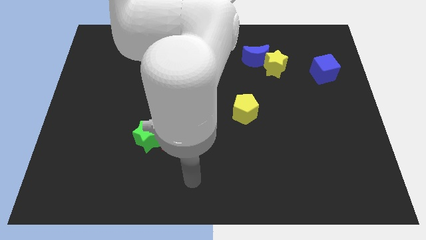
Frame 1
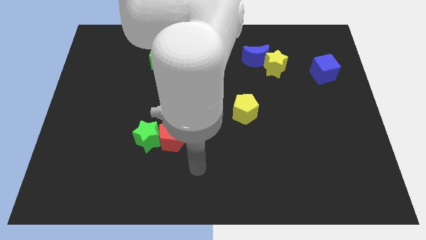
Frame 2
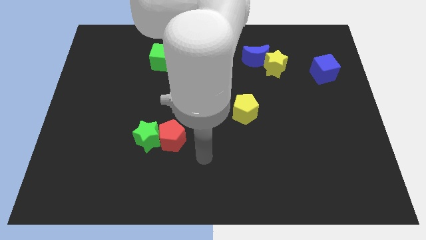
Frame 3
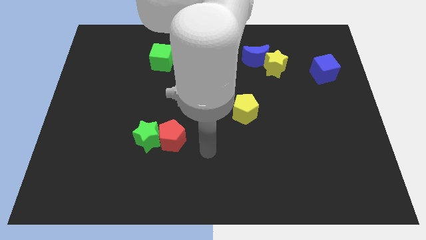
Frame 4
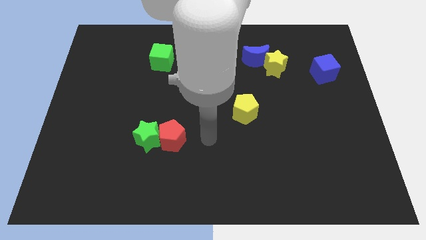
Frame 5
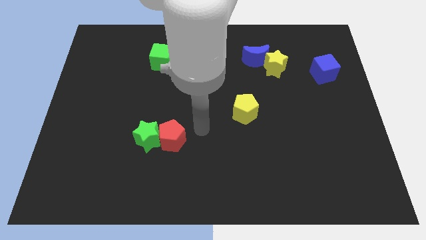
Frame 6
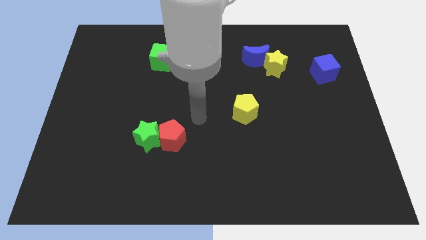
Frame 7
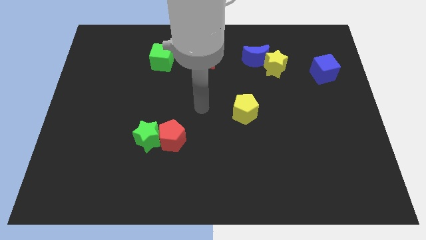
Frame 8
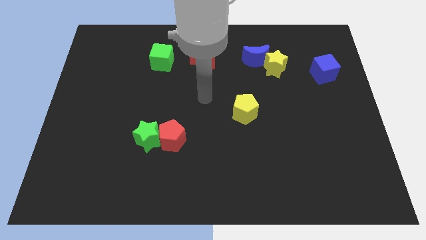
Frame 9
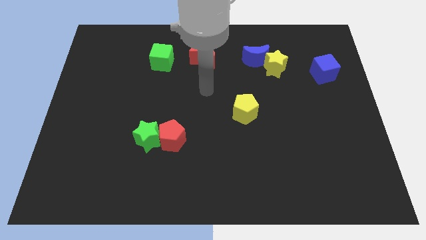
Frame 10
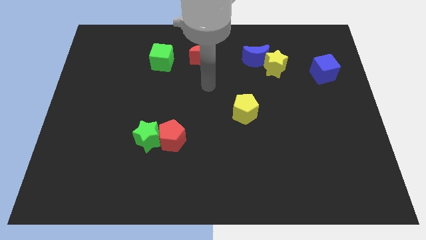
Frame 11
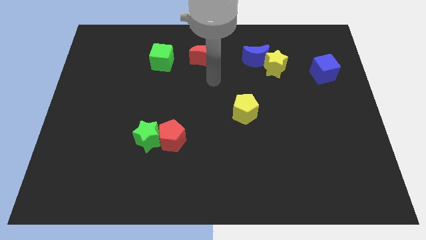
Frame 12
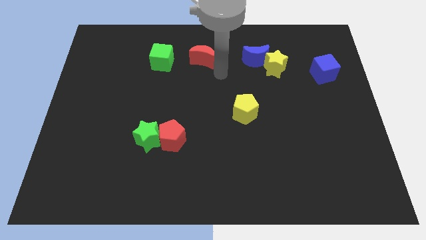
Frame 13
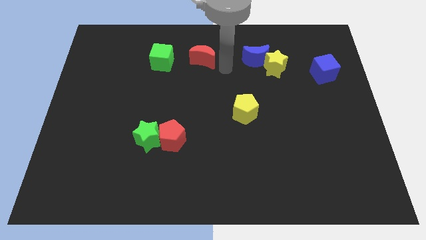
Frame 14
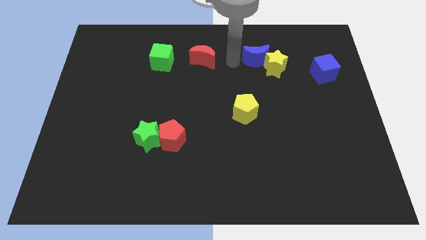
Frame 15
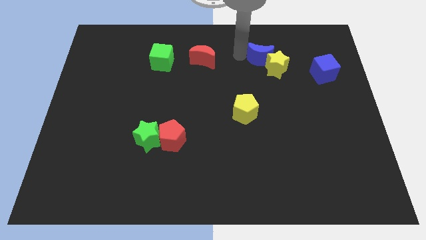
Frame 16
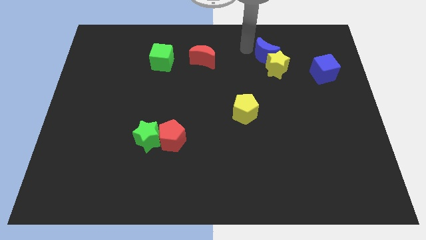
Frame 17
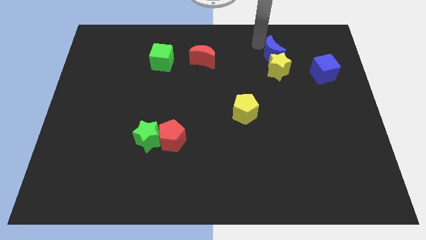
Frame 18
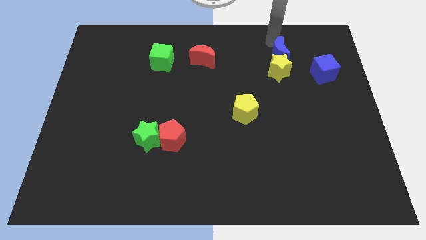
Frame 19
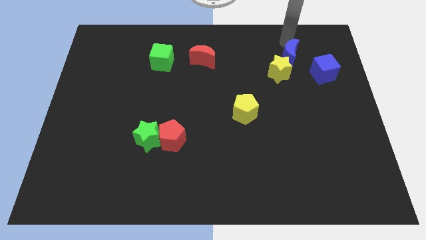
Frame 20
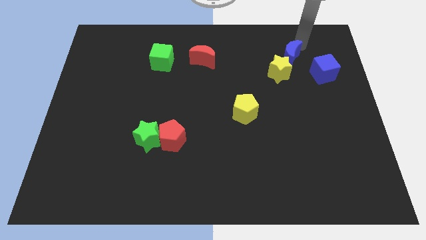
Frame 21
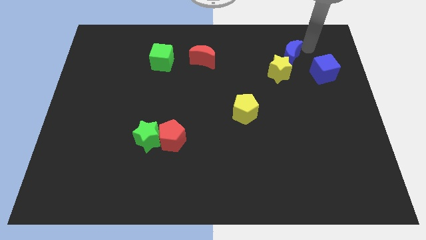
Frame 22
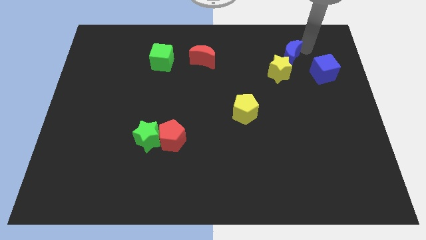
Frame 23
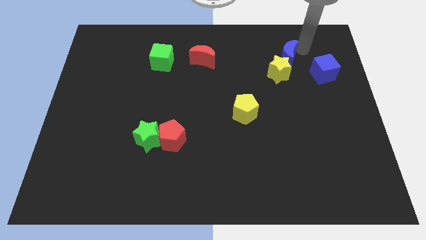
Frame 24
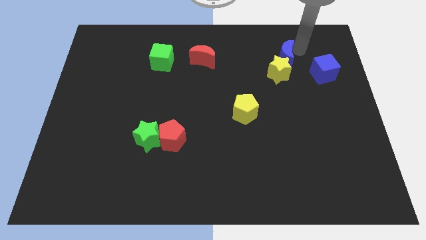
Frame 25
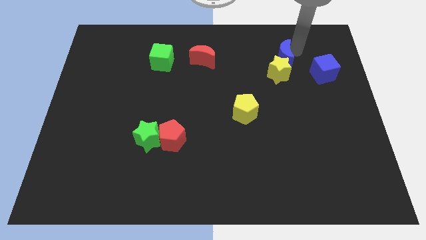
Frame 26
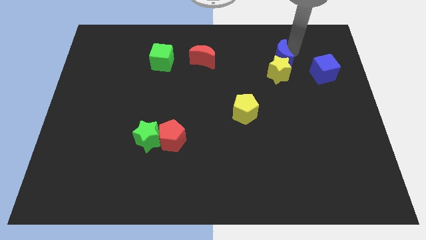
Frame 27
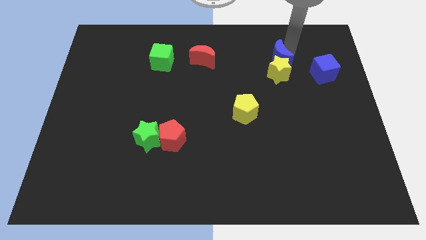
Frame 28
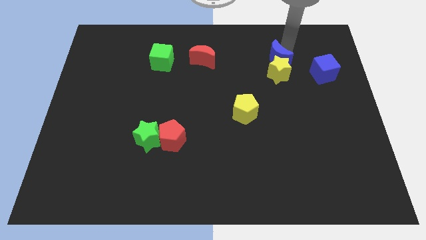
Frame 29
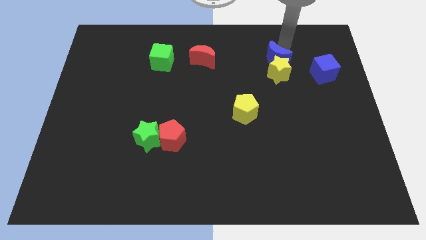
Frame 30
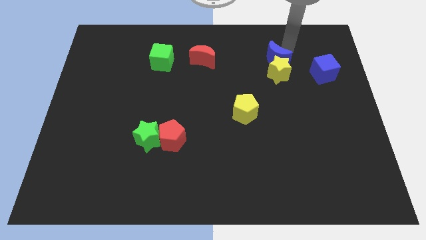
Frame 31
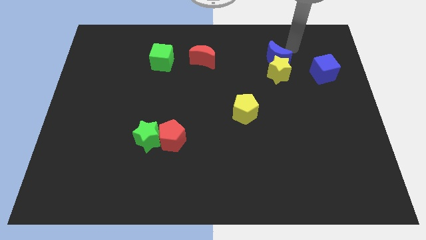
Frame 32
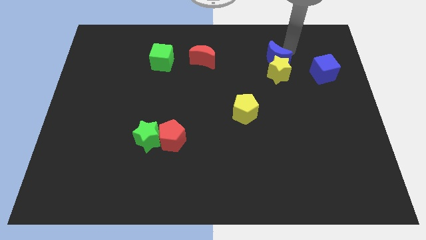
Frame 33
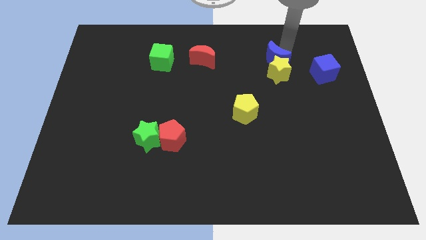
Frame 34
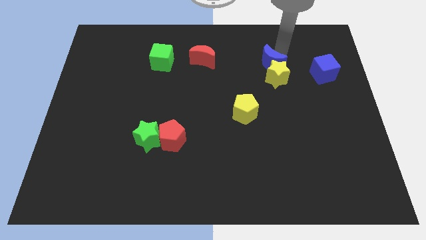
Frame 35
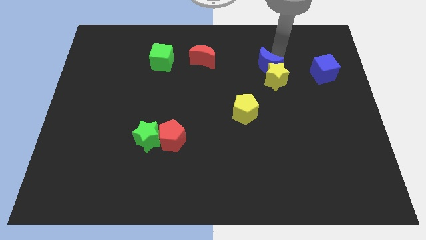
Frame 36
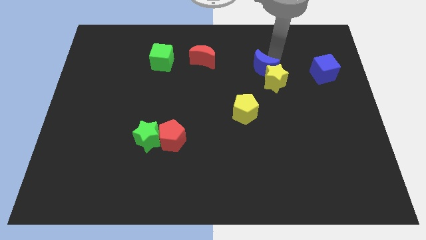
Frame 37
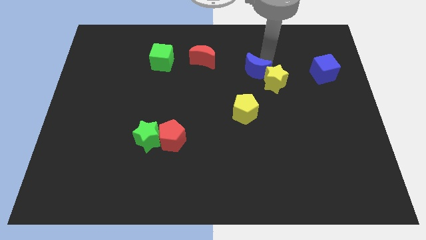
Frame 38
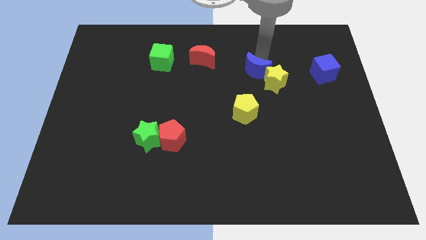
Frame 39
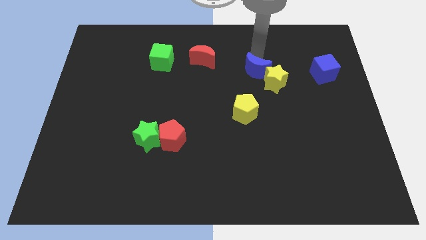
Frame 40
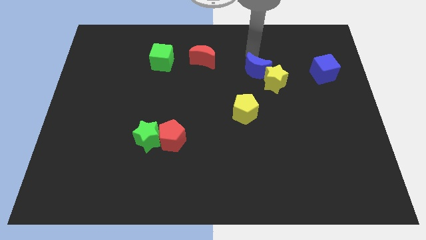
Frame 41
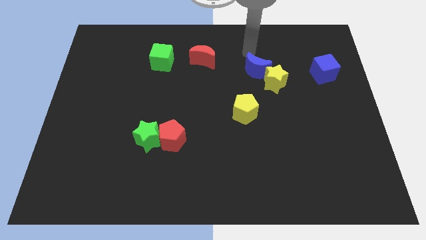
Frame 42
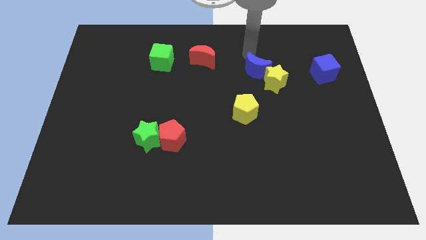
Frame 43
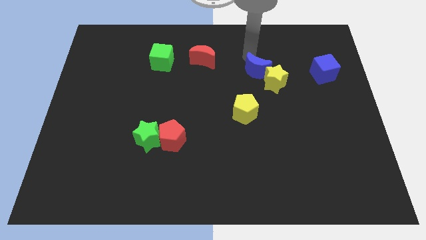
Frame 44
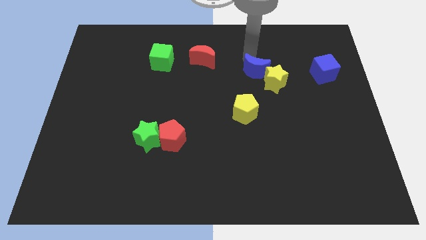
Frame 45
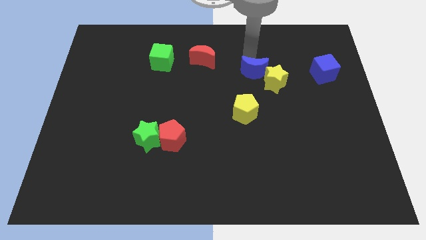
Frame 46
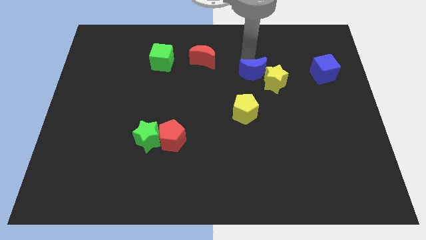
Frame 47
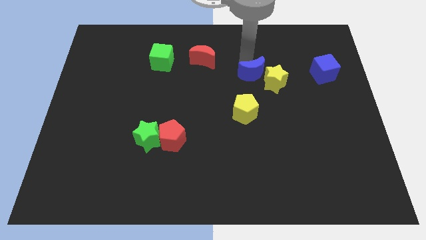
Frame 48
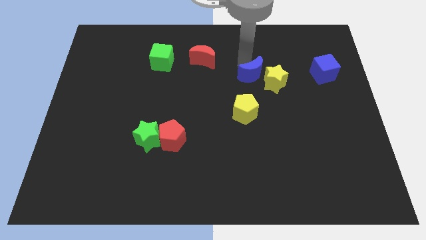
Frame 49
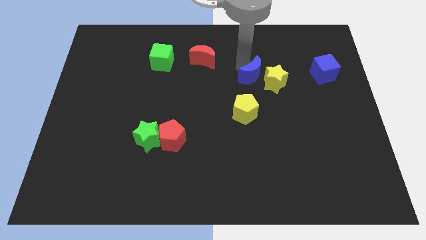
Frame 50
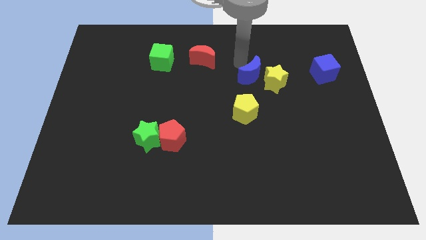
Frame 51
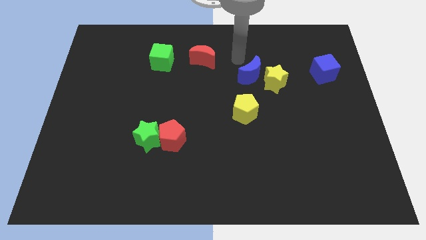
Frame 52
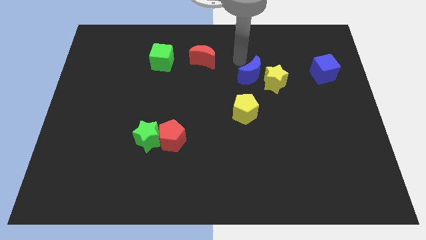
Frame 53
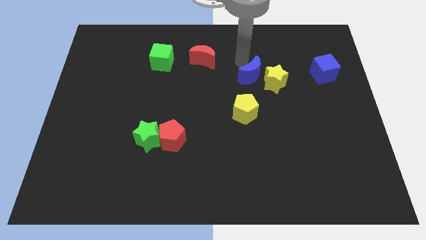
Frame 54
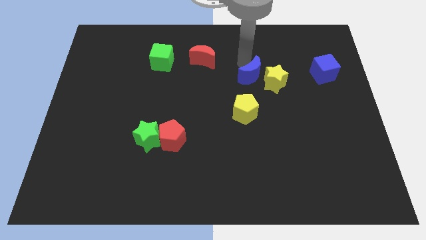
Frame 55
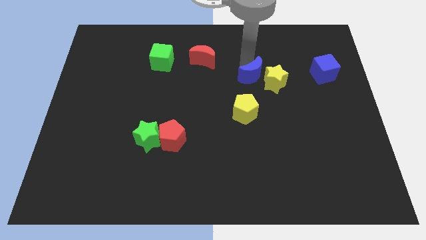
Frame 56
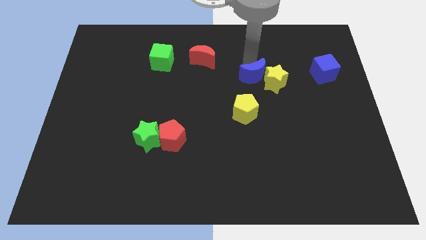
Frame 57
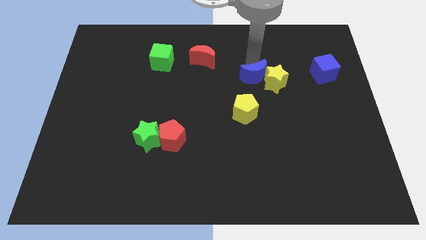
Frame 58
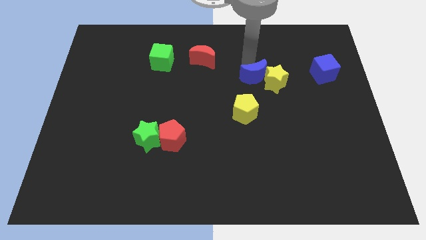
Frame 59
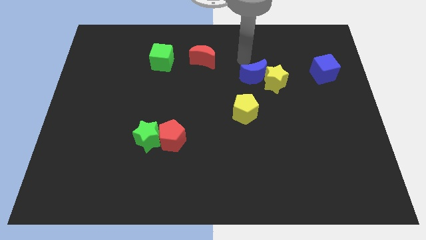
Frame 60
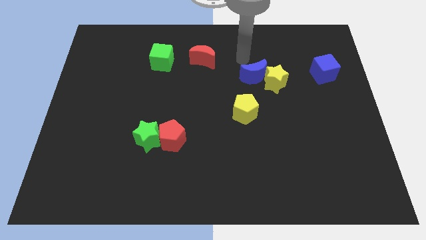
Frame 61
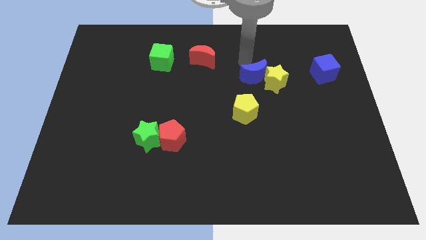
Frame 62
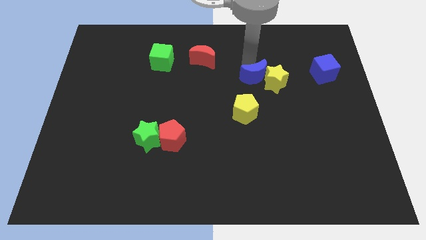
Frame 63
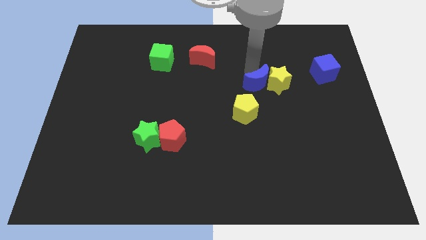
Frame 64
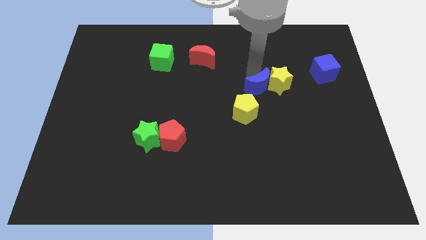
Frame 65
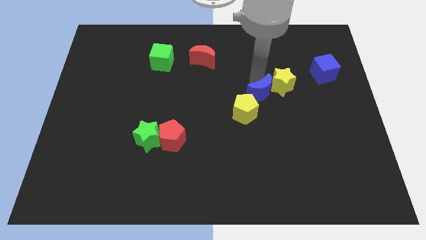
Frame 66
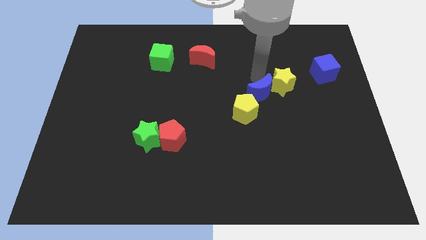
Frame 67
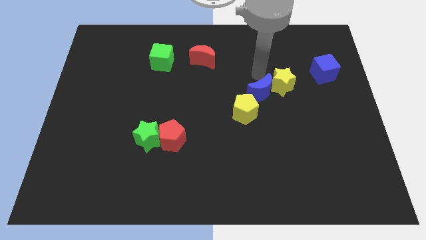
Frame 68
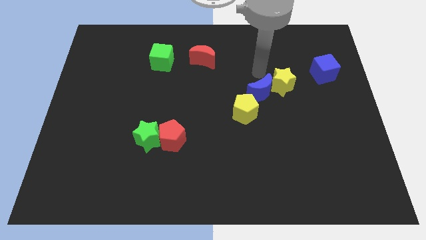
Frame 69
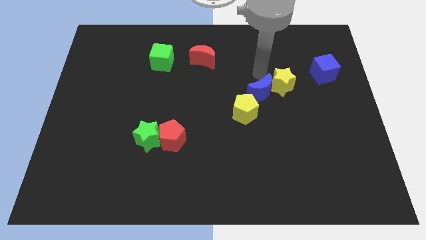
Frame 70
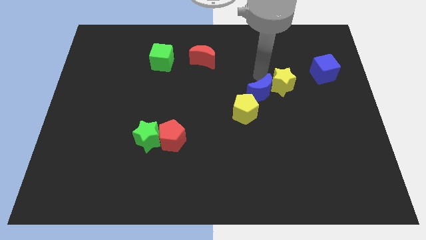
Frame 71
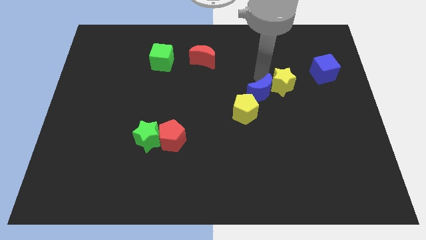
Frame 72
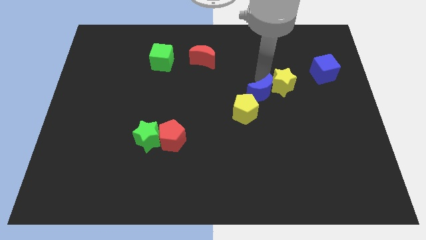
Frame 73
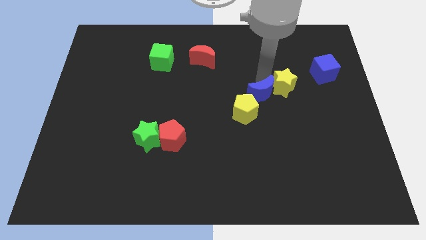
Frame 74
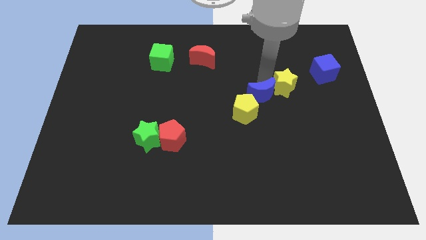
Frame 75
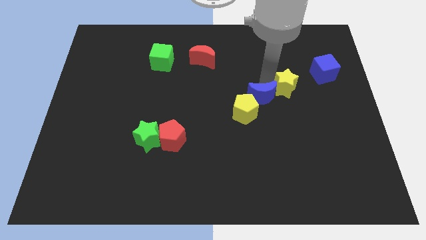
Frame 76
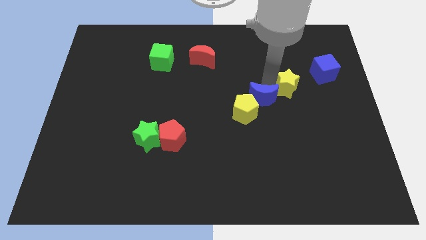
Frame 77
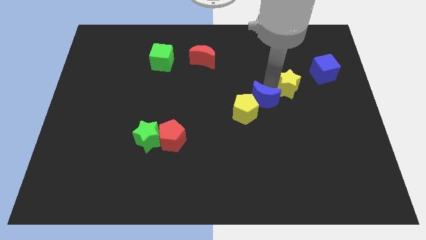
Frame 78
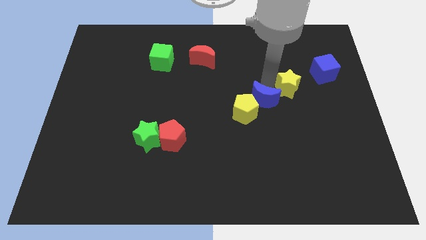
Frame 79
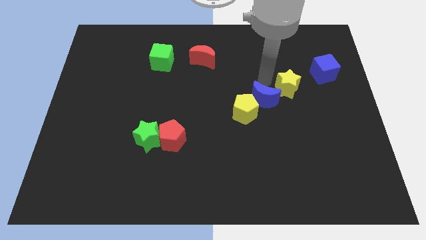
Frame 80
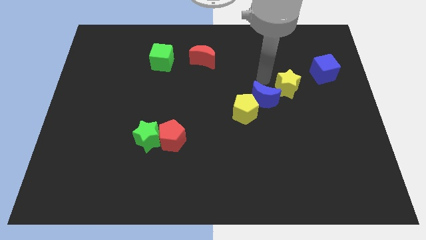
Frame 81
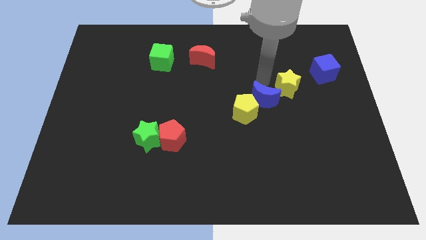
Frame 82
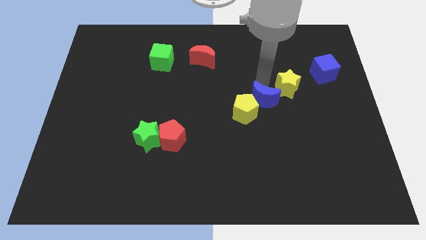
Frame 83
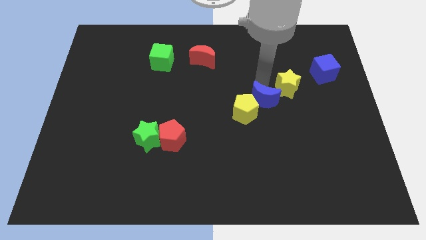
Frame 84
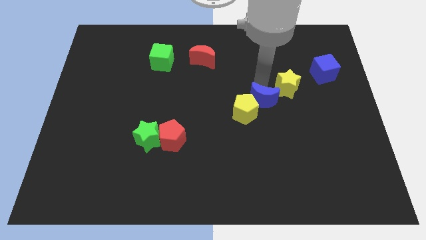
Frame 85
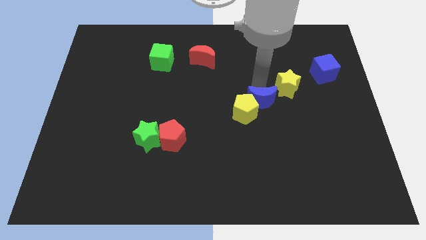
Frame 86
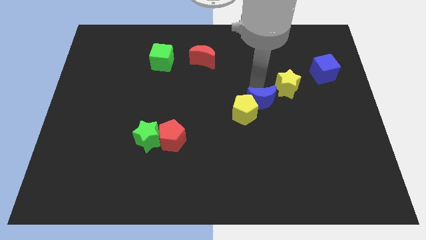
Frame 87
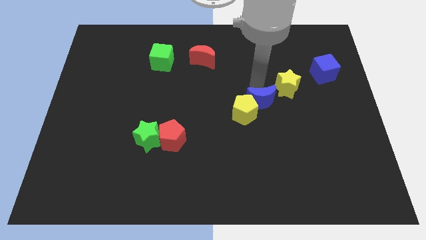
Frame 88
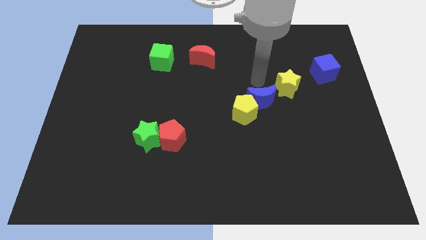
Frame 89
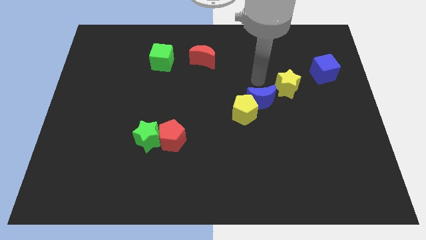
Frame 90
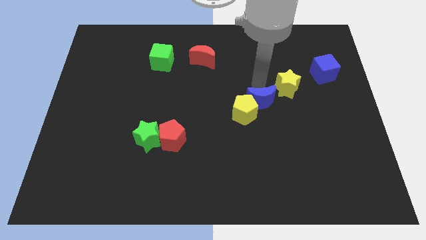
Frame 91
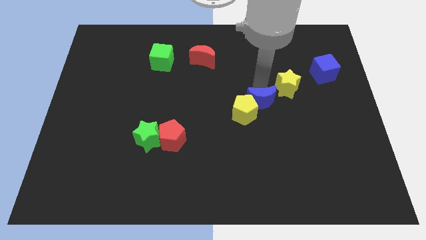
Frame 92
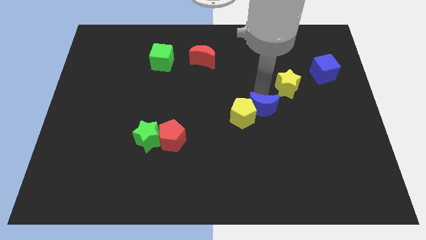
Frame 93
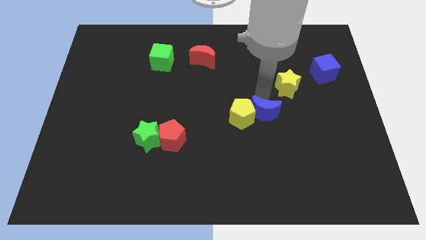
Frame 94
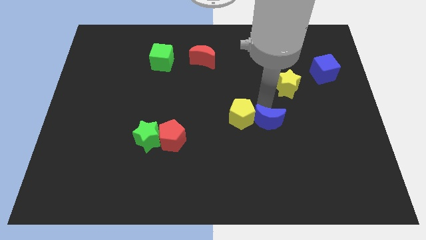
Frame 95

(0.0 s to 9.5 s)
push the blue moon downwards
